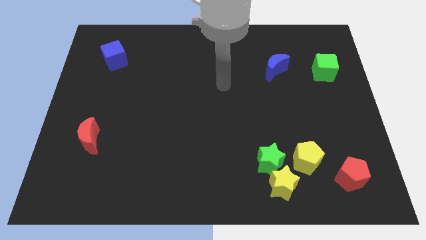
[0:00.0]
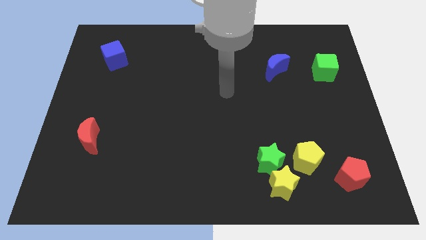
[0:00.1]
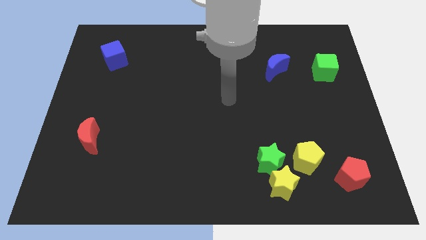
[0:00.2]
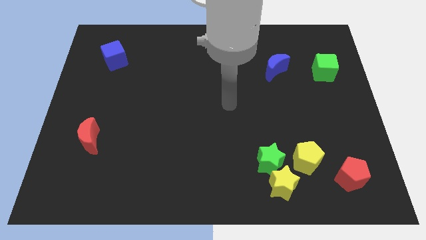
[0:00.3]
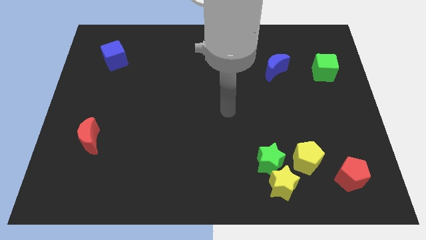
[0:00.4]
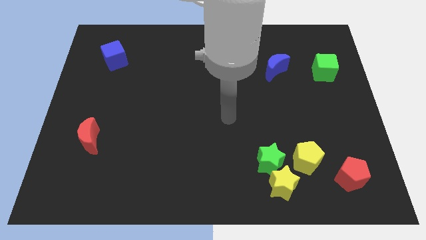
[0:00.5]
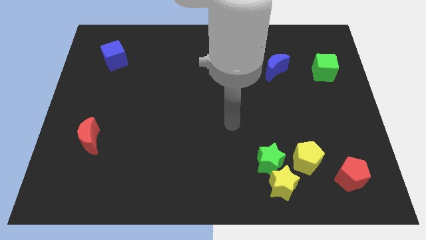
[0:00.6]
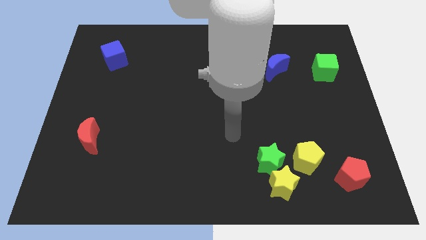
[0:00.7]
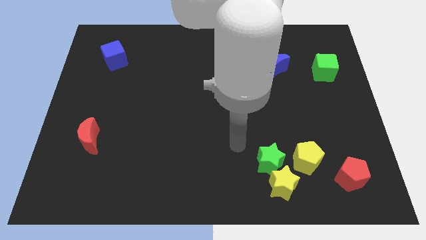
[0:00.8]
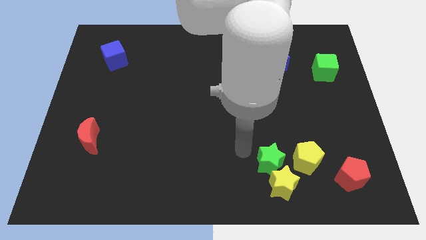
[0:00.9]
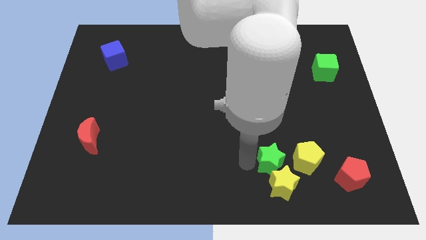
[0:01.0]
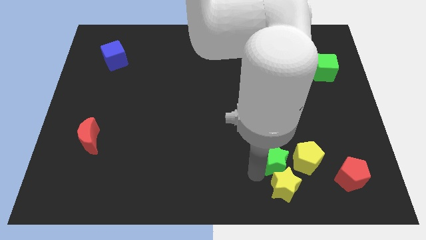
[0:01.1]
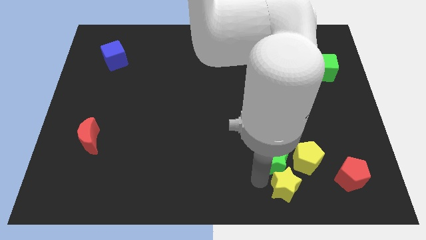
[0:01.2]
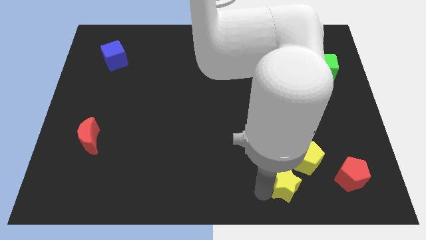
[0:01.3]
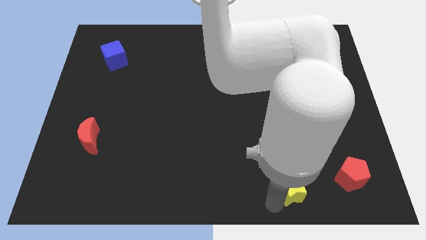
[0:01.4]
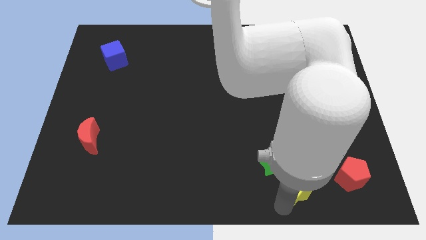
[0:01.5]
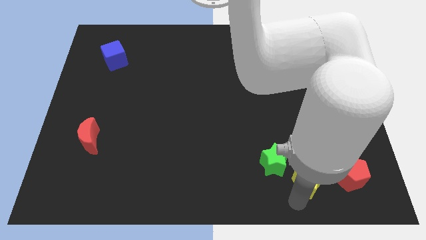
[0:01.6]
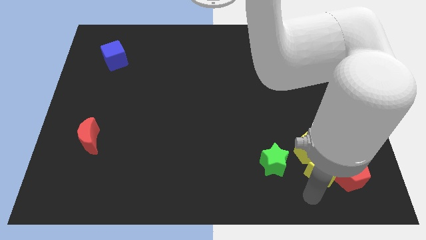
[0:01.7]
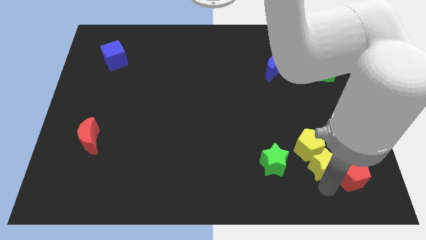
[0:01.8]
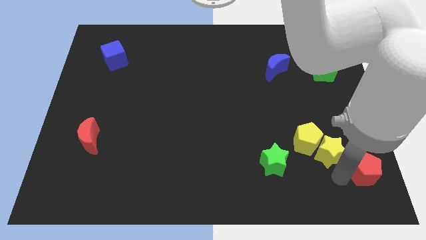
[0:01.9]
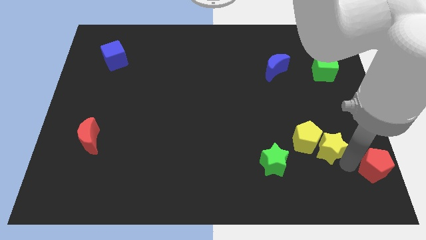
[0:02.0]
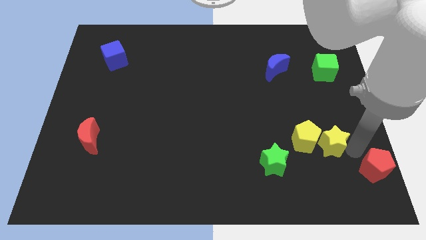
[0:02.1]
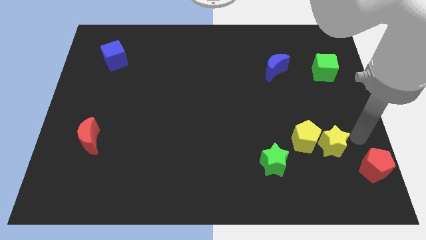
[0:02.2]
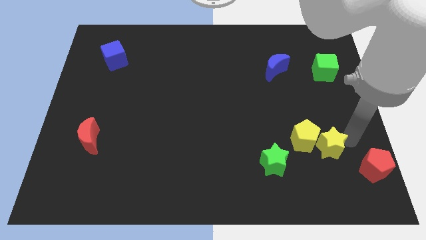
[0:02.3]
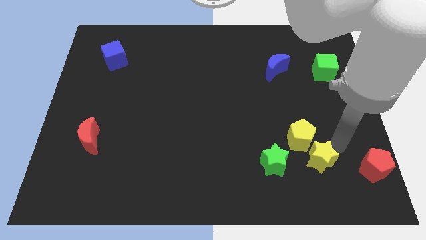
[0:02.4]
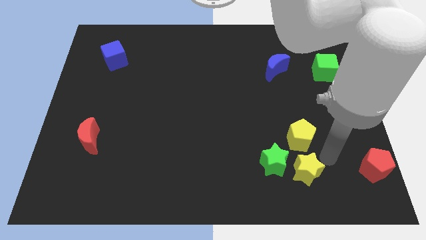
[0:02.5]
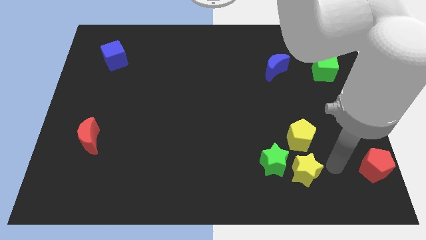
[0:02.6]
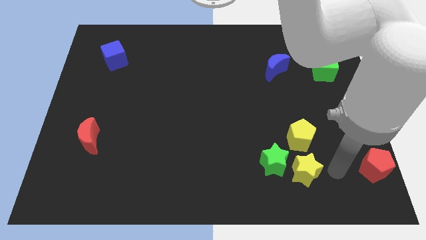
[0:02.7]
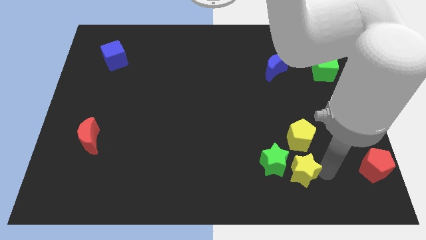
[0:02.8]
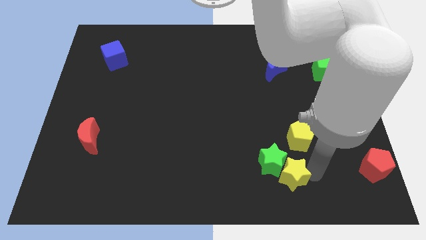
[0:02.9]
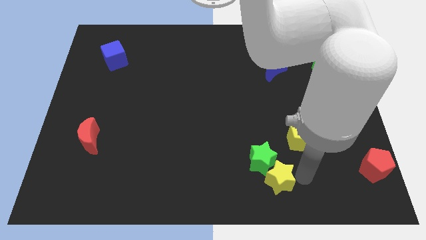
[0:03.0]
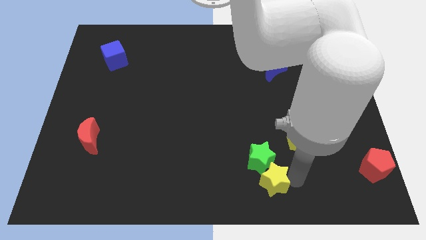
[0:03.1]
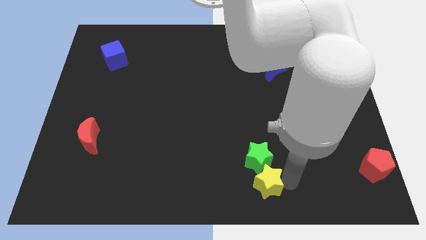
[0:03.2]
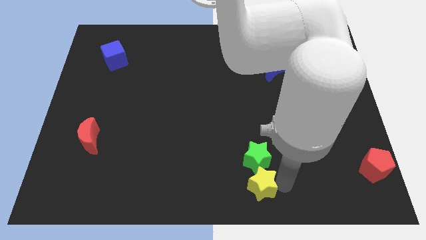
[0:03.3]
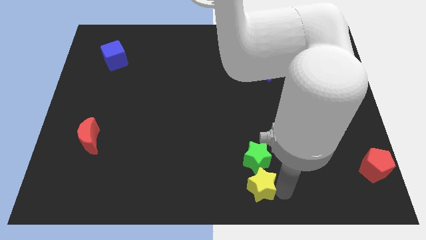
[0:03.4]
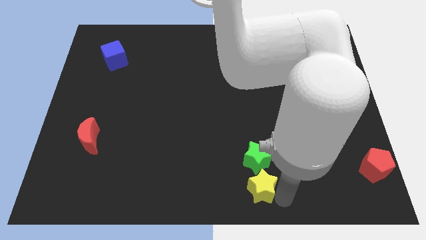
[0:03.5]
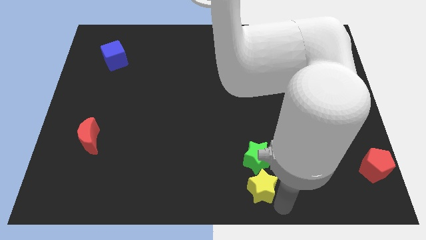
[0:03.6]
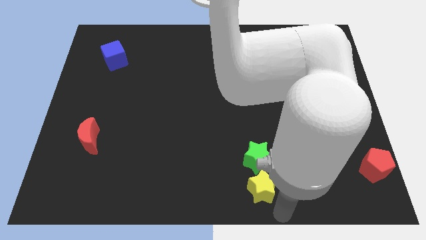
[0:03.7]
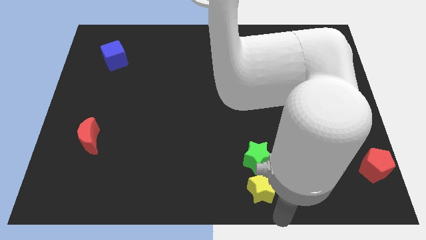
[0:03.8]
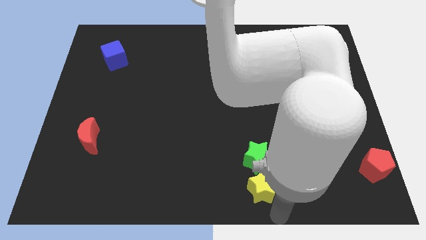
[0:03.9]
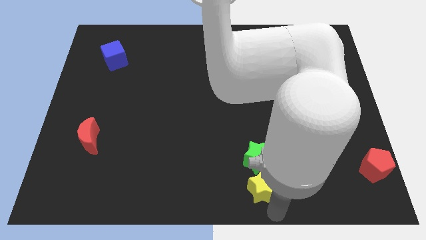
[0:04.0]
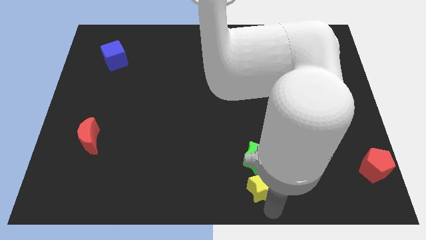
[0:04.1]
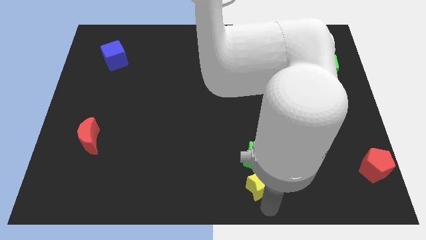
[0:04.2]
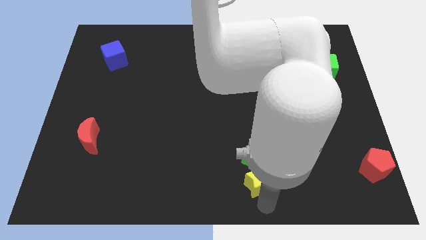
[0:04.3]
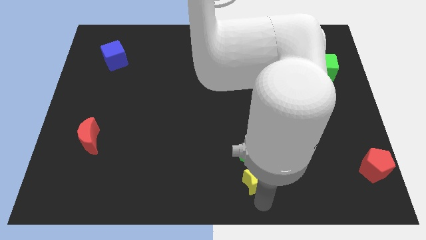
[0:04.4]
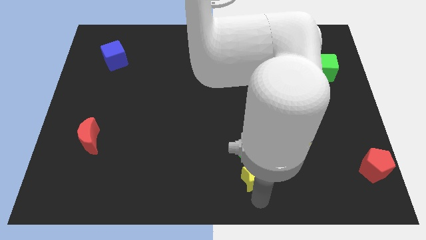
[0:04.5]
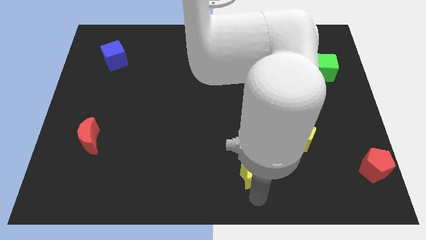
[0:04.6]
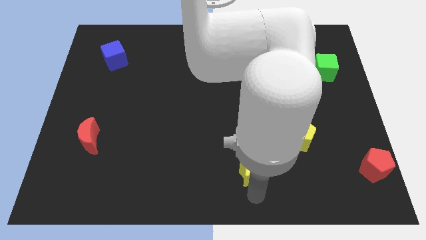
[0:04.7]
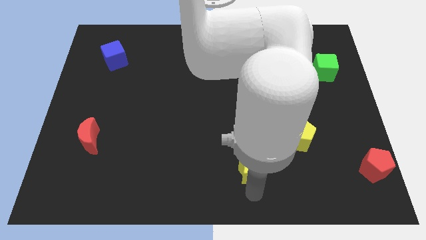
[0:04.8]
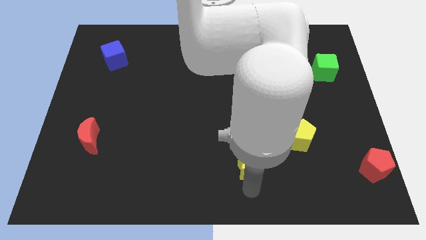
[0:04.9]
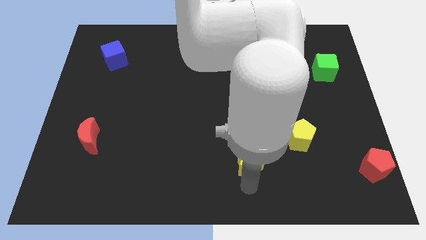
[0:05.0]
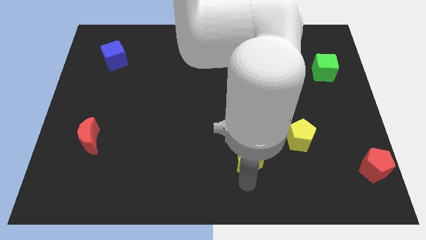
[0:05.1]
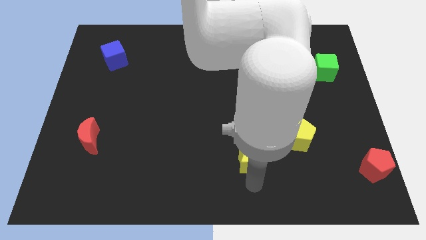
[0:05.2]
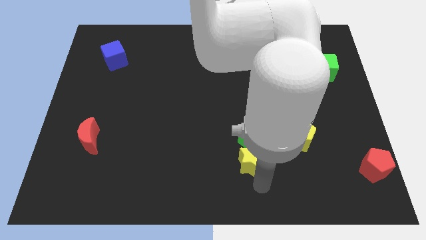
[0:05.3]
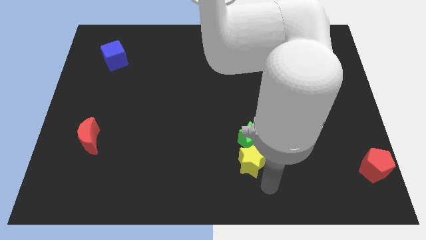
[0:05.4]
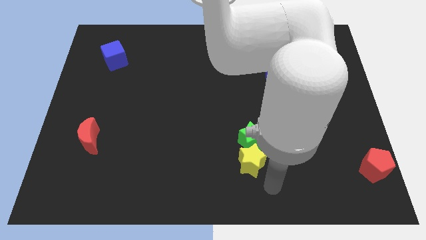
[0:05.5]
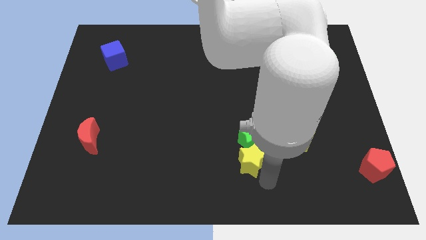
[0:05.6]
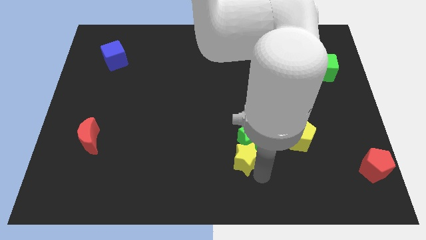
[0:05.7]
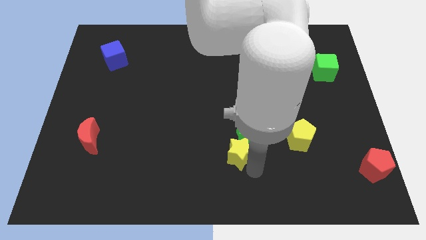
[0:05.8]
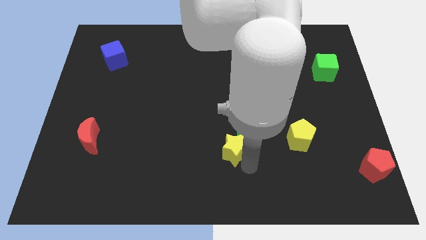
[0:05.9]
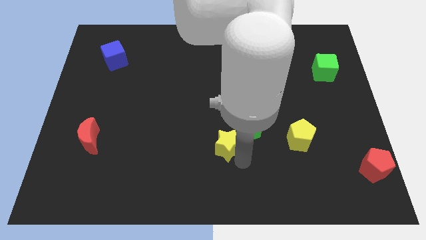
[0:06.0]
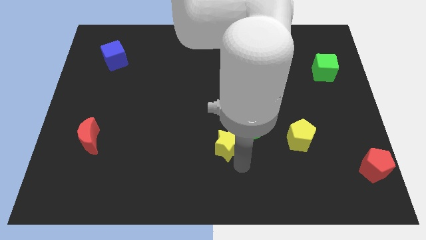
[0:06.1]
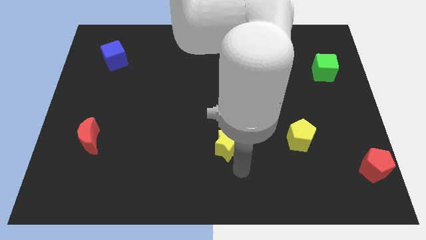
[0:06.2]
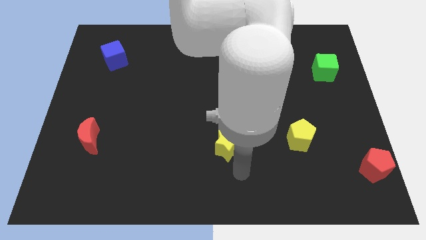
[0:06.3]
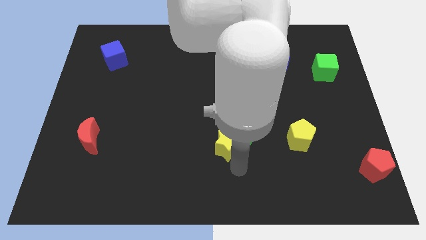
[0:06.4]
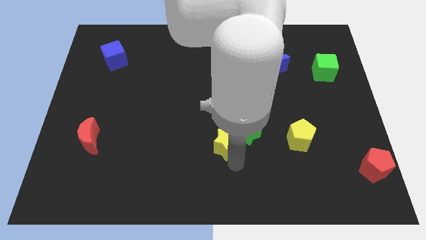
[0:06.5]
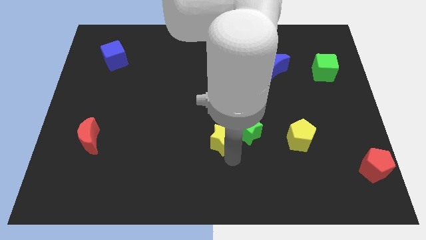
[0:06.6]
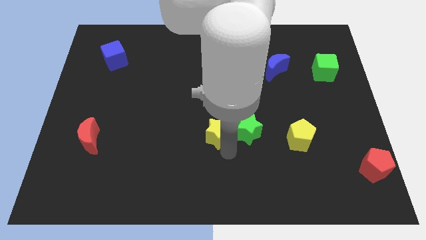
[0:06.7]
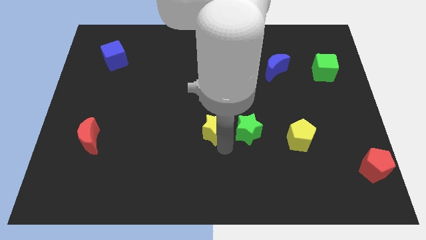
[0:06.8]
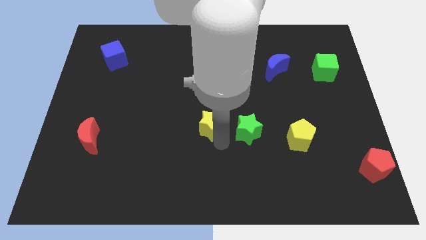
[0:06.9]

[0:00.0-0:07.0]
push the yellow star diagonally up and to the left

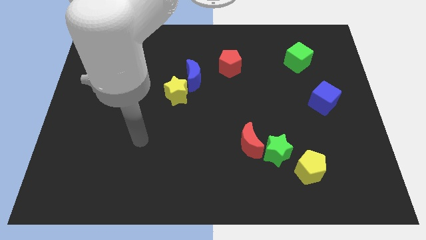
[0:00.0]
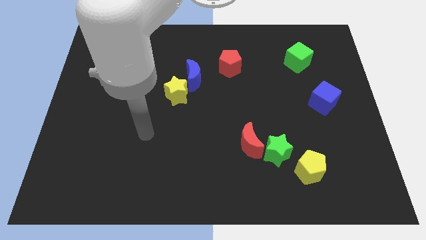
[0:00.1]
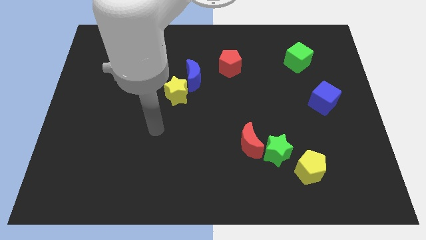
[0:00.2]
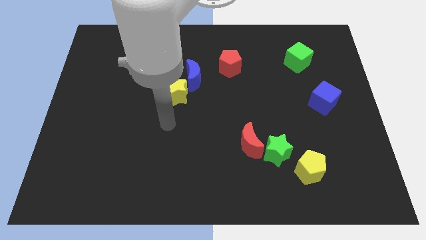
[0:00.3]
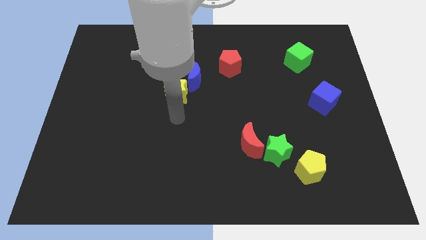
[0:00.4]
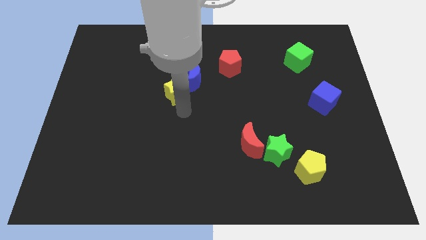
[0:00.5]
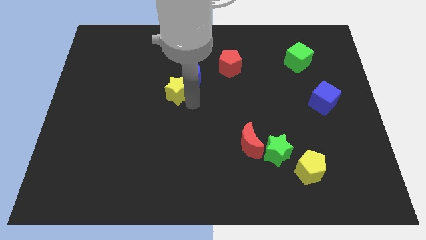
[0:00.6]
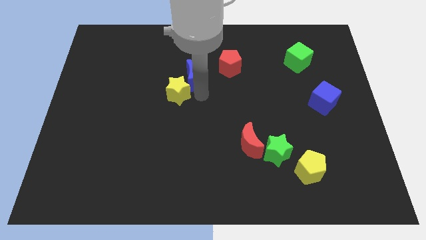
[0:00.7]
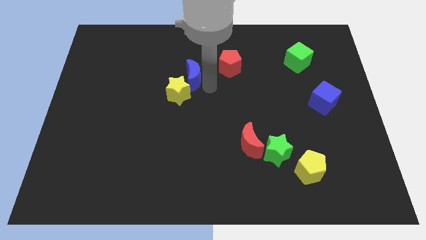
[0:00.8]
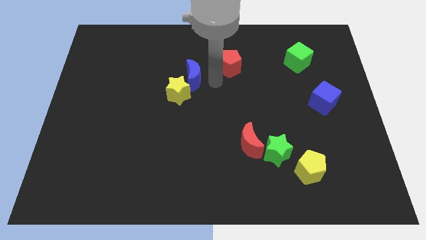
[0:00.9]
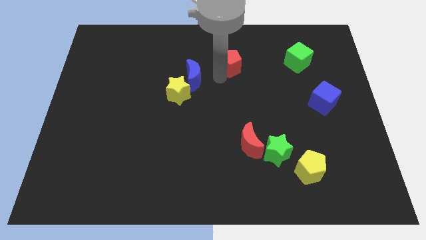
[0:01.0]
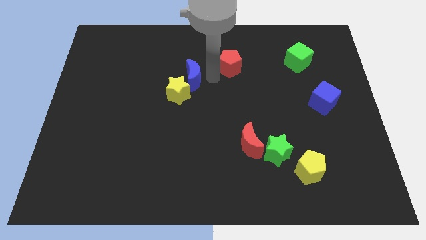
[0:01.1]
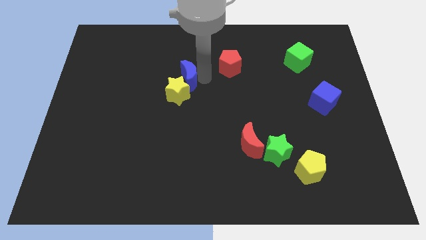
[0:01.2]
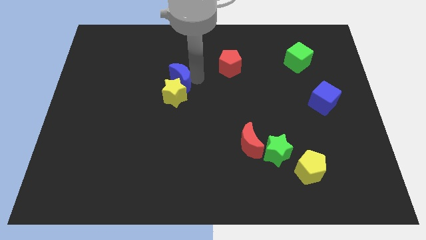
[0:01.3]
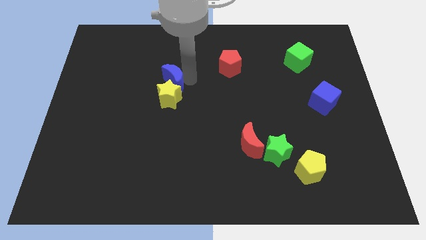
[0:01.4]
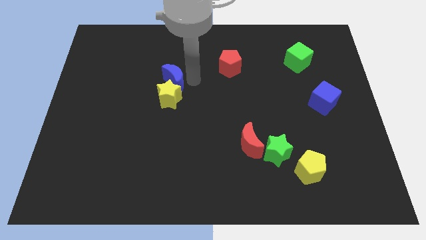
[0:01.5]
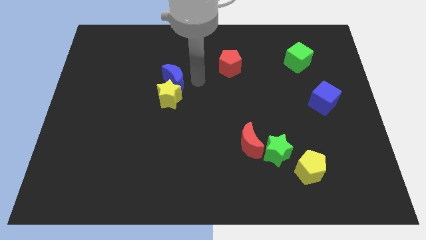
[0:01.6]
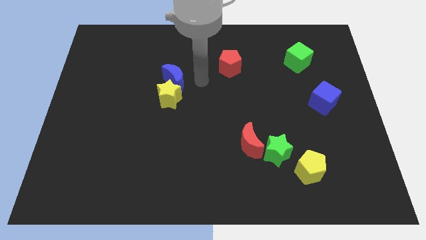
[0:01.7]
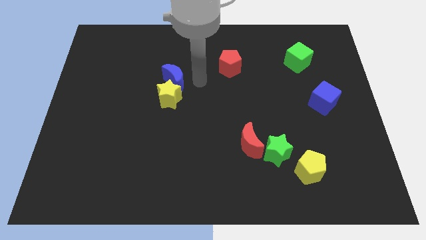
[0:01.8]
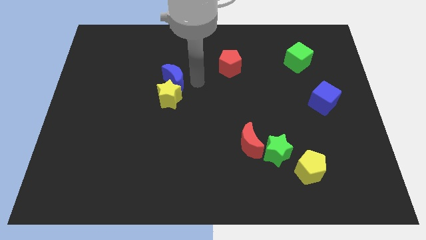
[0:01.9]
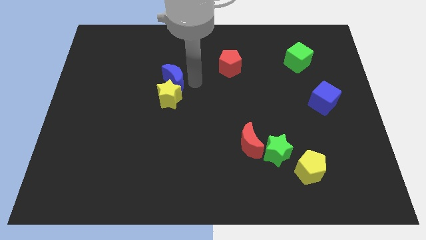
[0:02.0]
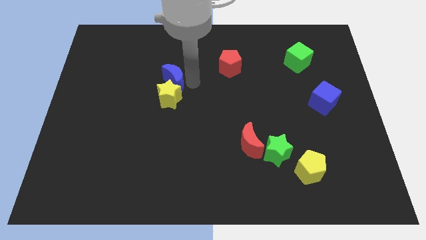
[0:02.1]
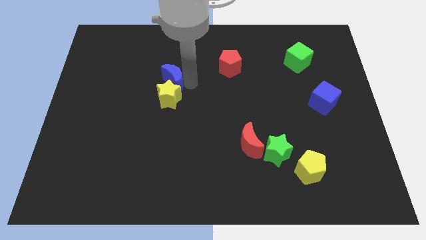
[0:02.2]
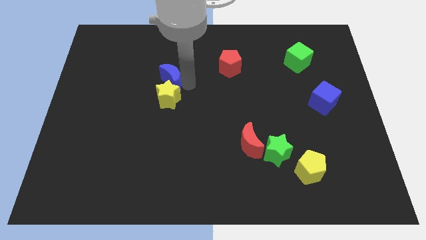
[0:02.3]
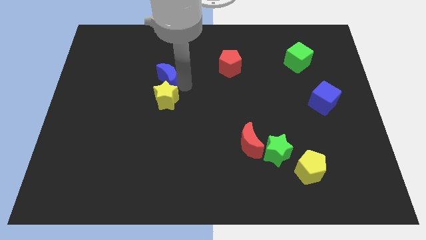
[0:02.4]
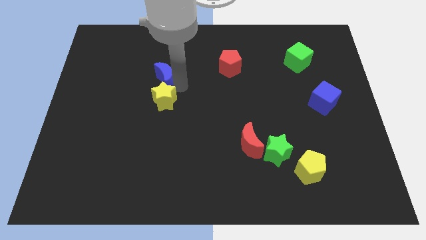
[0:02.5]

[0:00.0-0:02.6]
push the blue moon to the left a little bit
